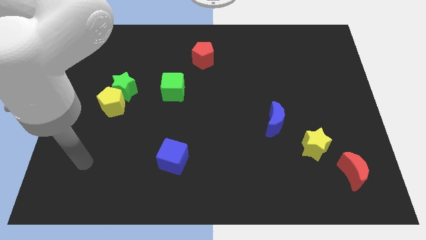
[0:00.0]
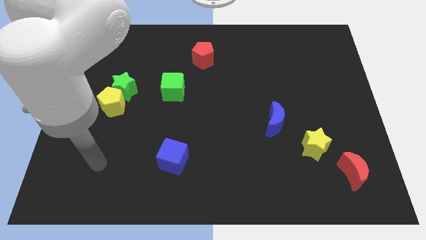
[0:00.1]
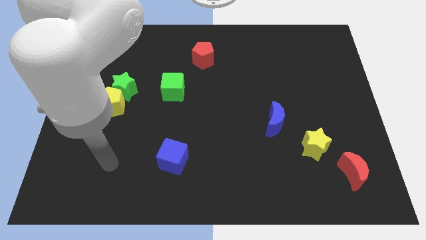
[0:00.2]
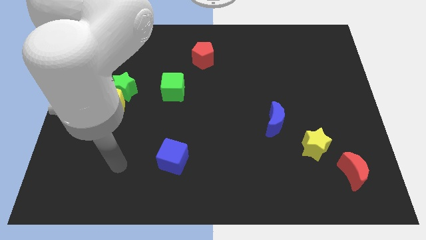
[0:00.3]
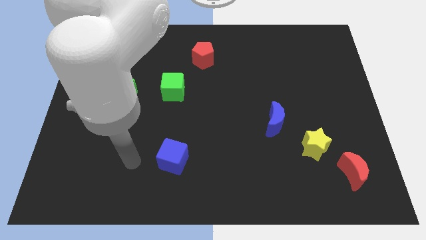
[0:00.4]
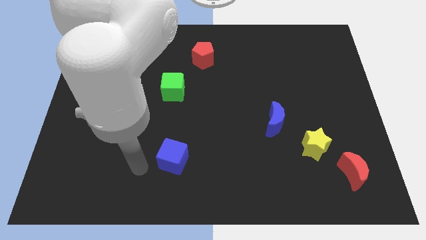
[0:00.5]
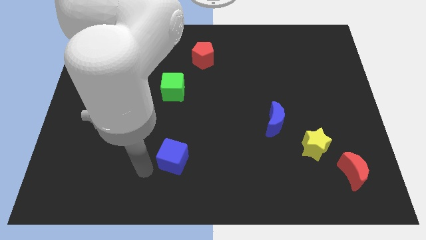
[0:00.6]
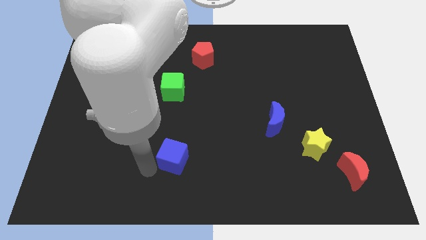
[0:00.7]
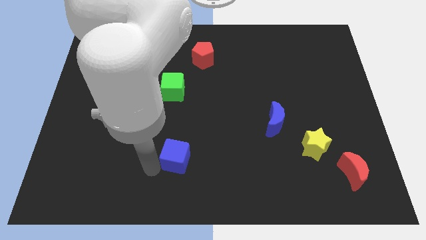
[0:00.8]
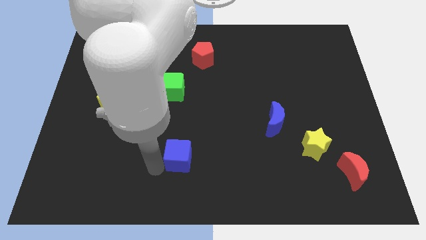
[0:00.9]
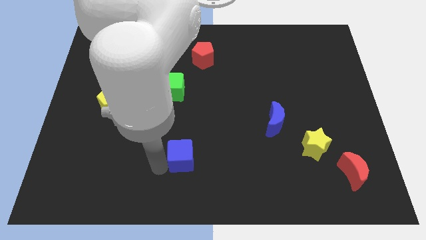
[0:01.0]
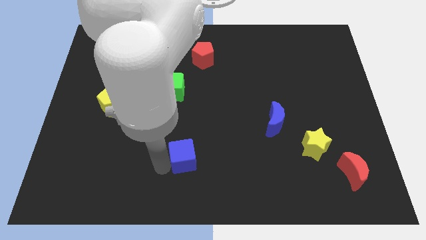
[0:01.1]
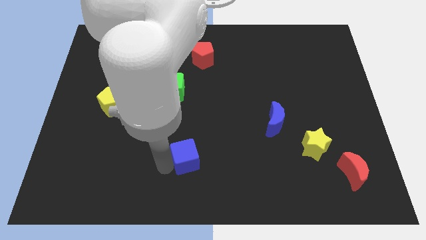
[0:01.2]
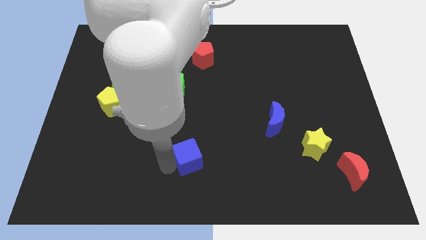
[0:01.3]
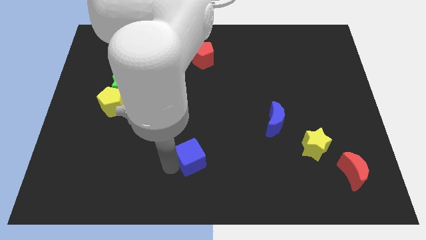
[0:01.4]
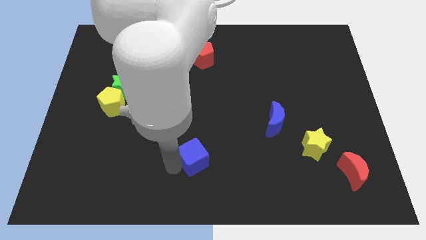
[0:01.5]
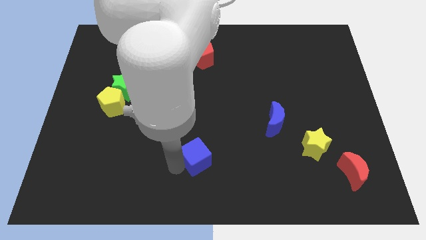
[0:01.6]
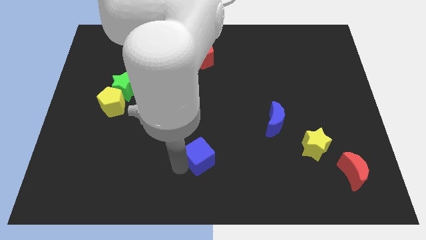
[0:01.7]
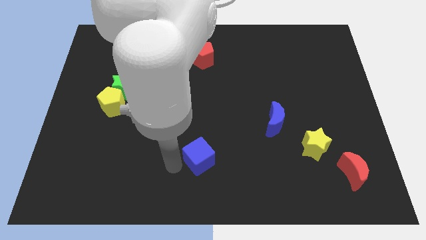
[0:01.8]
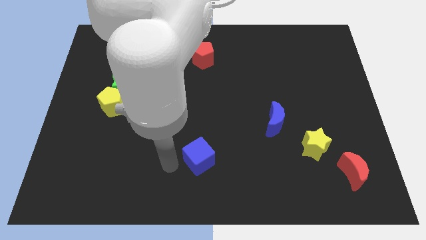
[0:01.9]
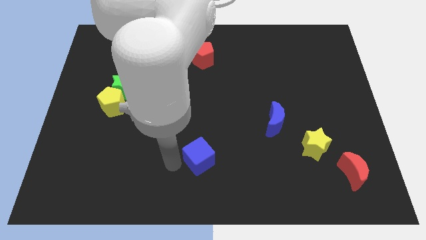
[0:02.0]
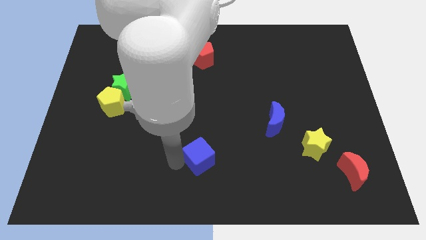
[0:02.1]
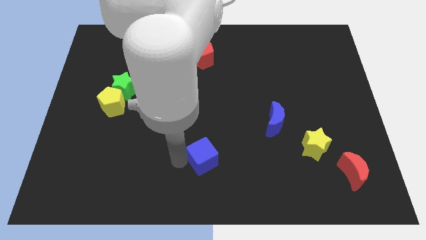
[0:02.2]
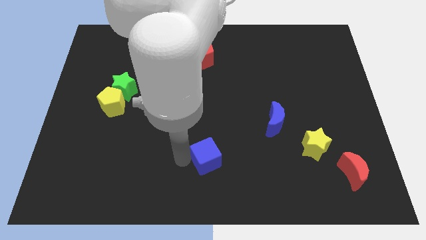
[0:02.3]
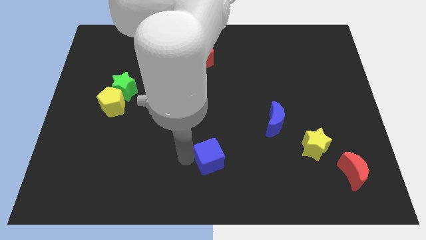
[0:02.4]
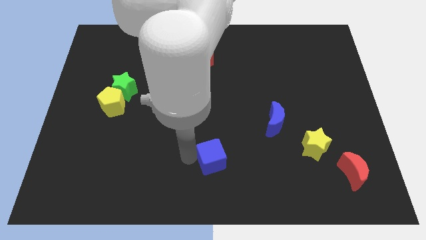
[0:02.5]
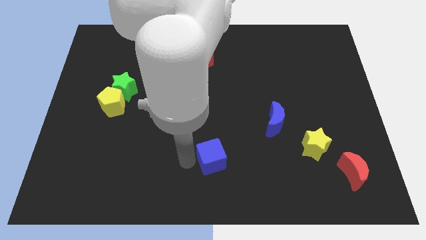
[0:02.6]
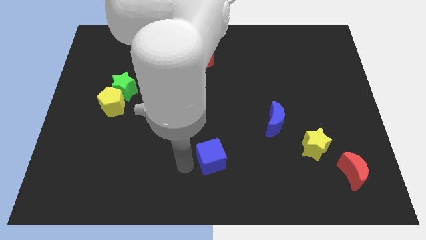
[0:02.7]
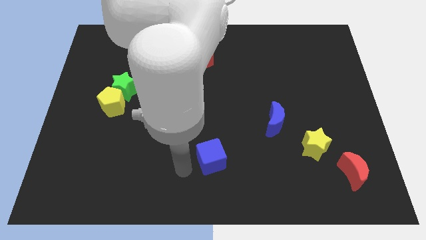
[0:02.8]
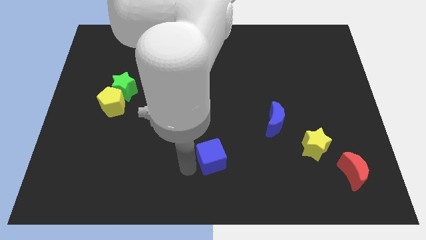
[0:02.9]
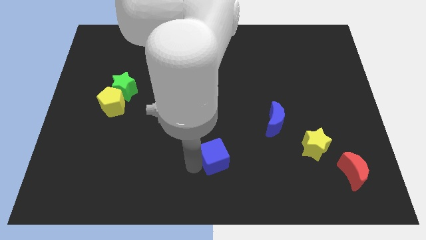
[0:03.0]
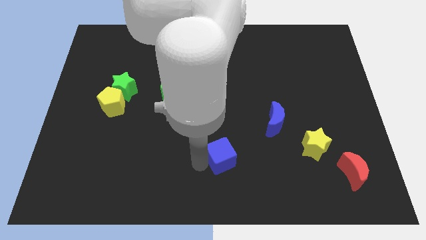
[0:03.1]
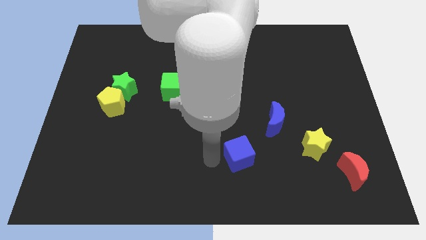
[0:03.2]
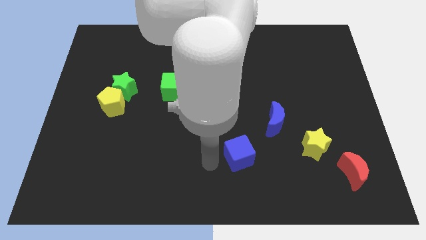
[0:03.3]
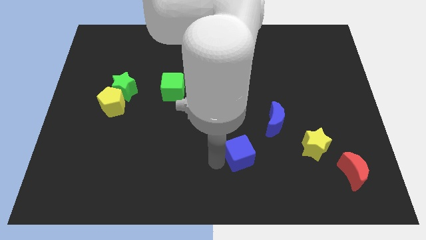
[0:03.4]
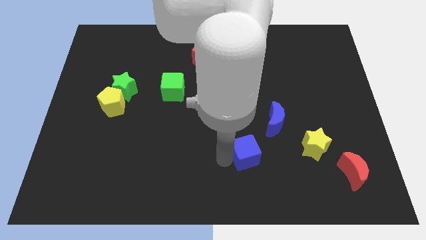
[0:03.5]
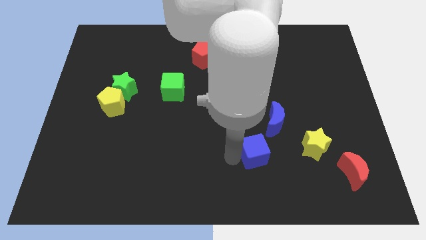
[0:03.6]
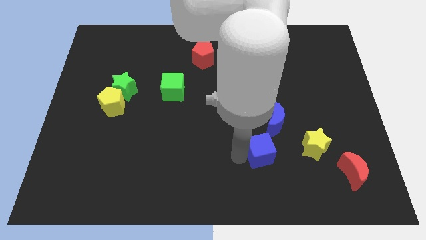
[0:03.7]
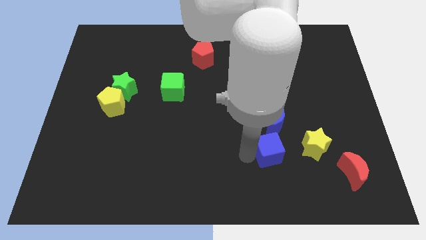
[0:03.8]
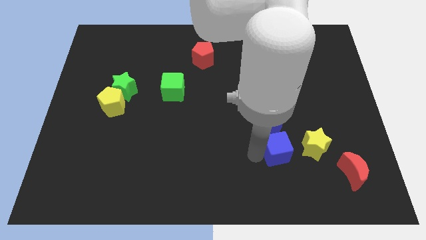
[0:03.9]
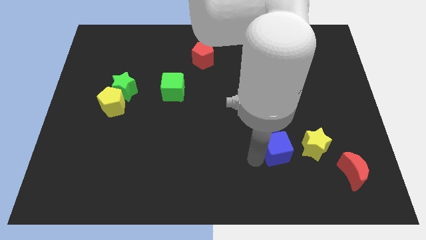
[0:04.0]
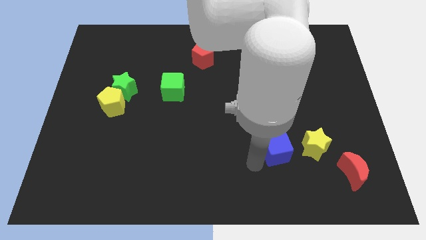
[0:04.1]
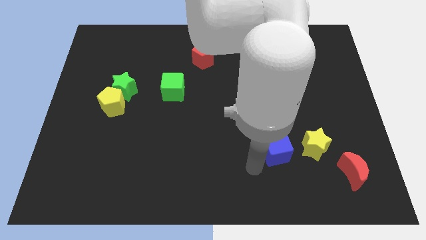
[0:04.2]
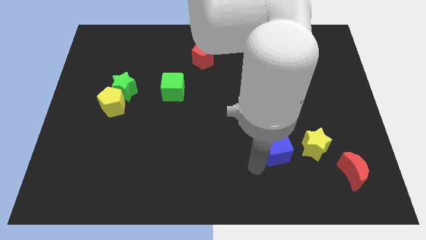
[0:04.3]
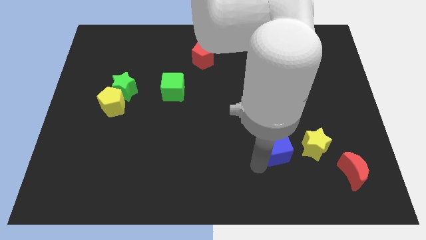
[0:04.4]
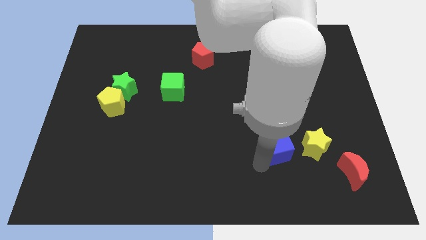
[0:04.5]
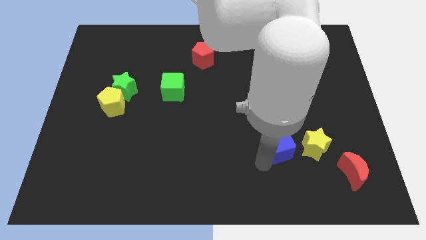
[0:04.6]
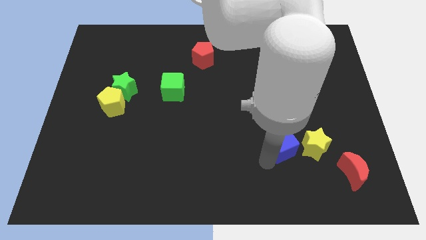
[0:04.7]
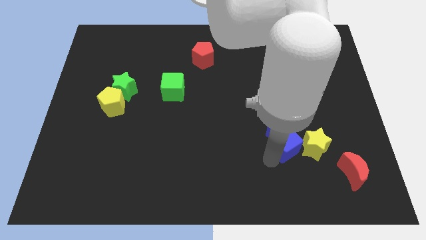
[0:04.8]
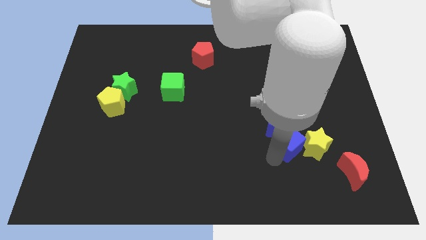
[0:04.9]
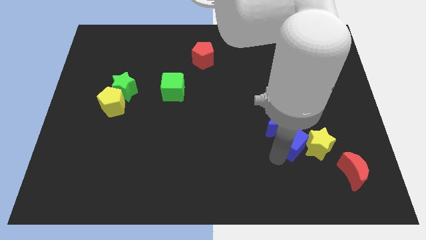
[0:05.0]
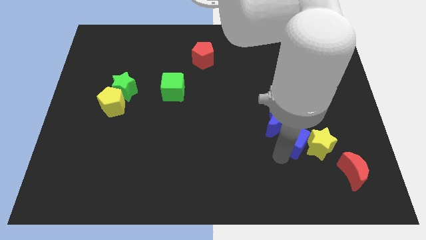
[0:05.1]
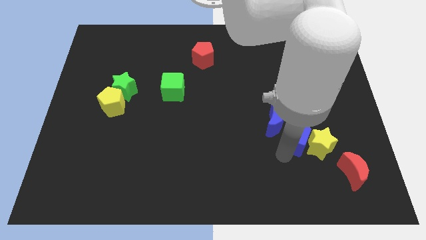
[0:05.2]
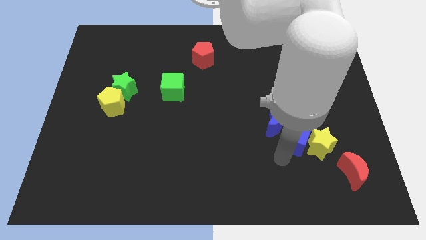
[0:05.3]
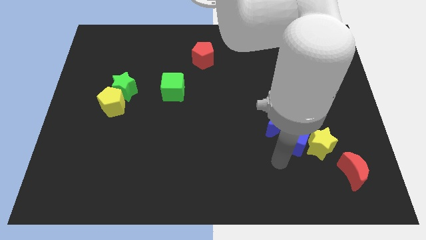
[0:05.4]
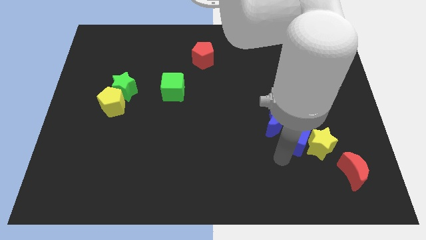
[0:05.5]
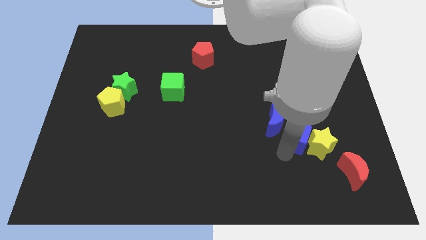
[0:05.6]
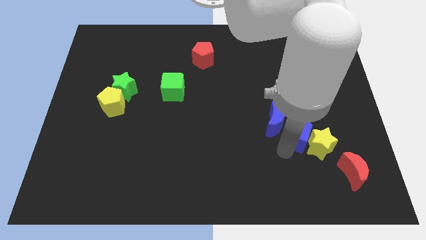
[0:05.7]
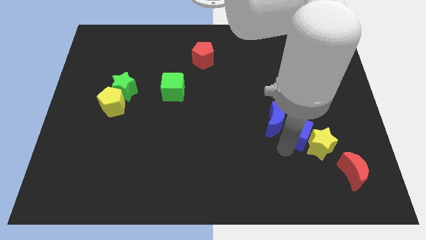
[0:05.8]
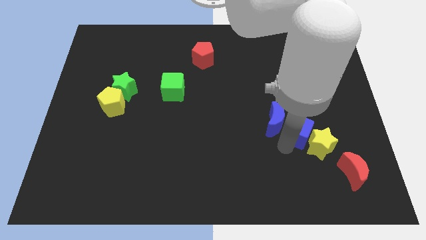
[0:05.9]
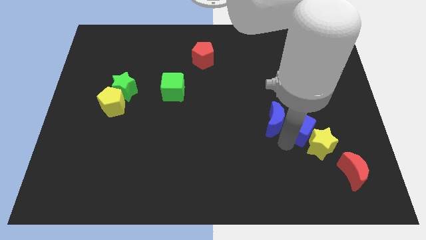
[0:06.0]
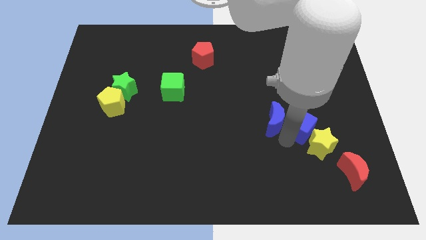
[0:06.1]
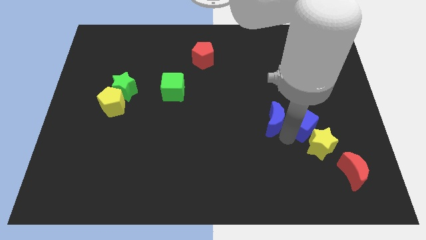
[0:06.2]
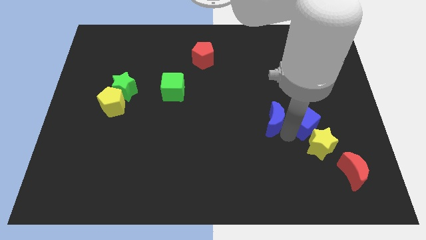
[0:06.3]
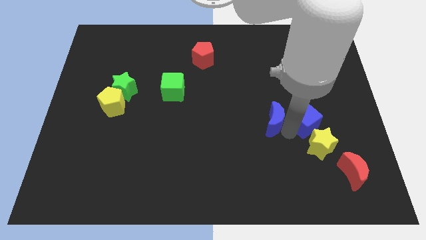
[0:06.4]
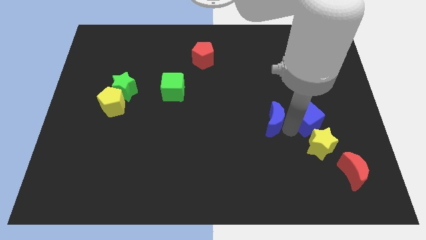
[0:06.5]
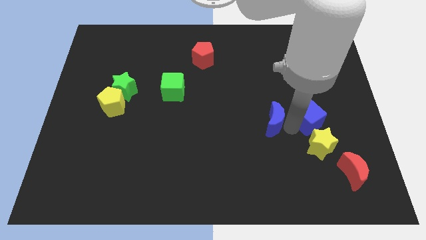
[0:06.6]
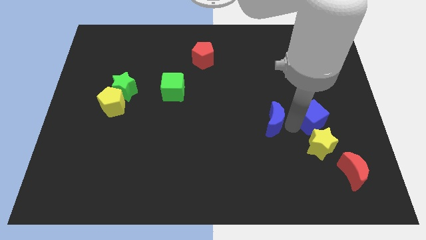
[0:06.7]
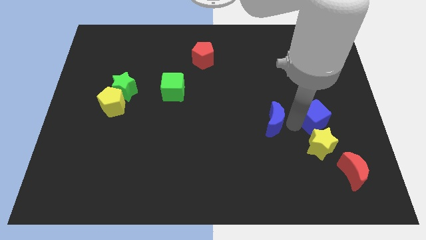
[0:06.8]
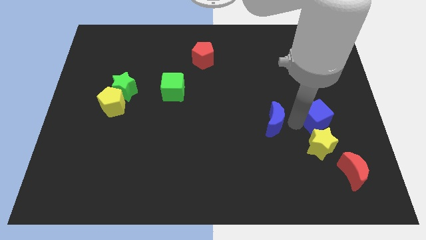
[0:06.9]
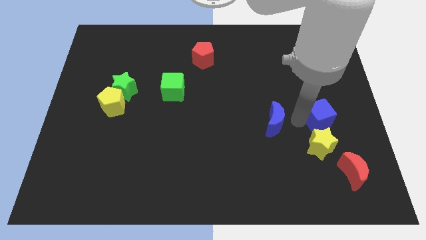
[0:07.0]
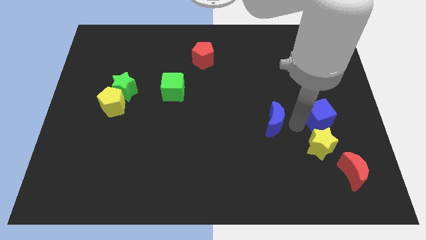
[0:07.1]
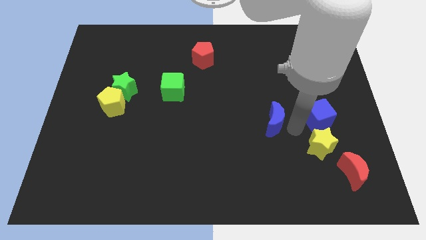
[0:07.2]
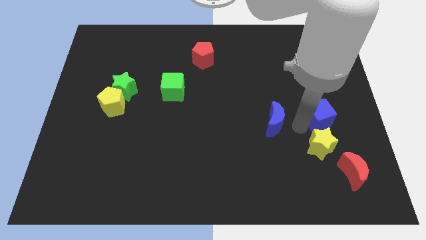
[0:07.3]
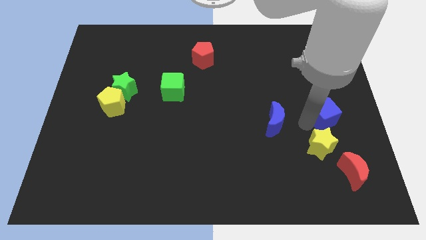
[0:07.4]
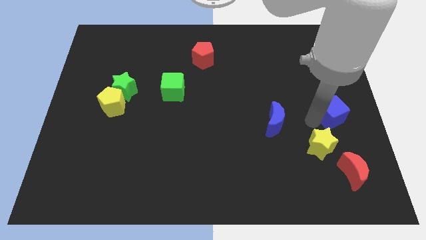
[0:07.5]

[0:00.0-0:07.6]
move the blue cube to the center right
